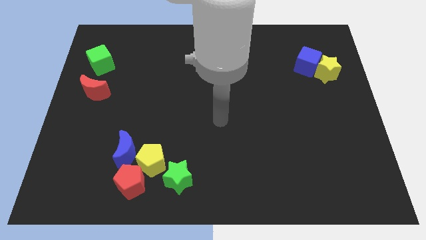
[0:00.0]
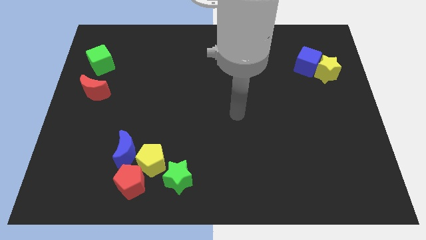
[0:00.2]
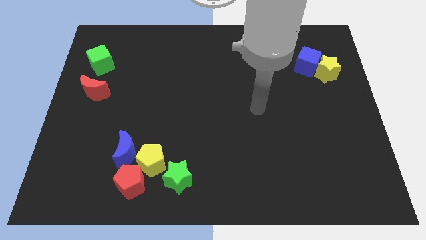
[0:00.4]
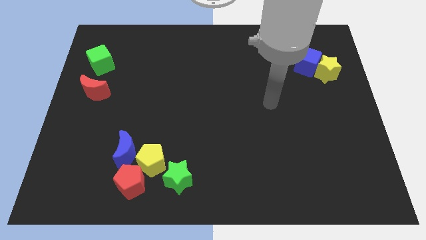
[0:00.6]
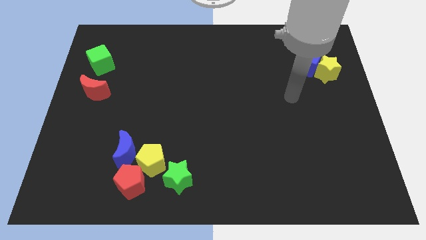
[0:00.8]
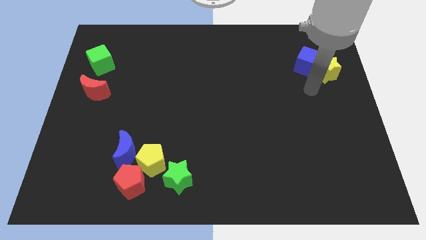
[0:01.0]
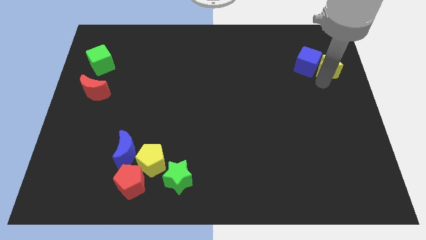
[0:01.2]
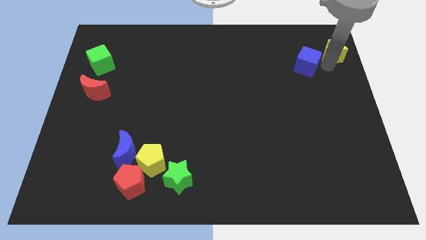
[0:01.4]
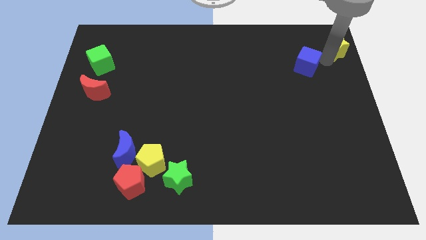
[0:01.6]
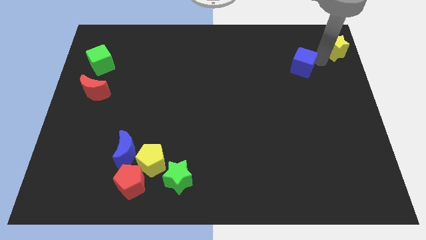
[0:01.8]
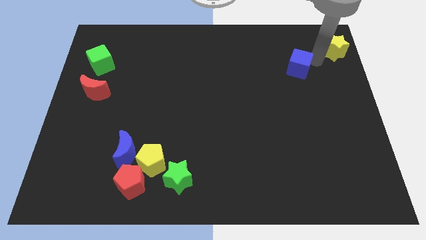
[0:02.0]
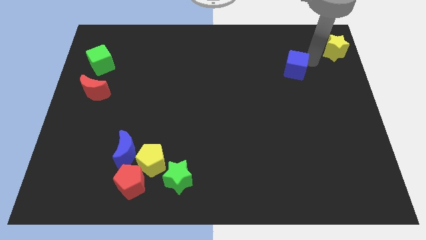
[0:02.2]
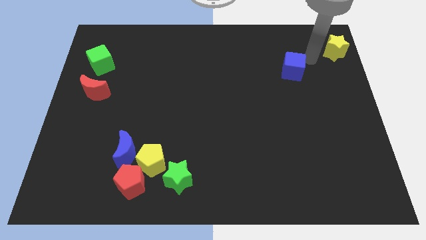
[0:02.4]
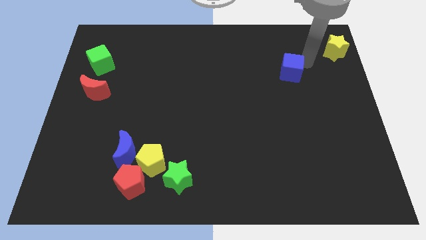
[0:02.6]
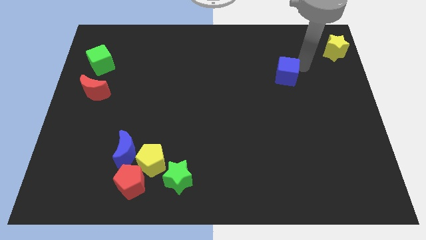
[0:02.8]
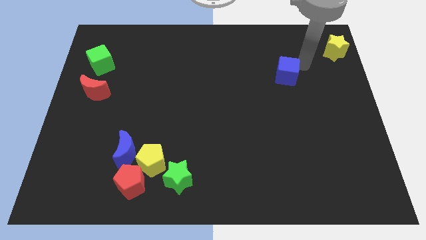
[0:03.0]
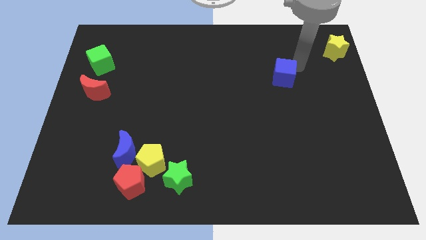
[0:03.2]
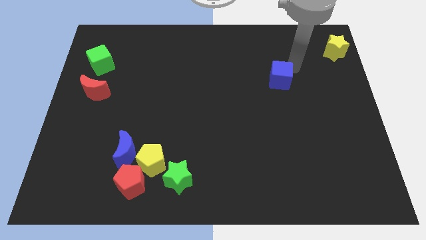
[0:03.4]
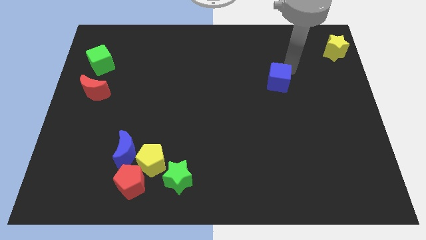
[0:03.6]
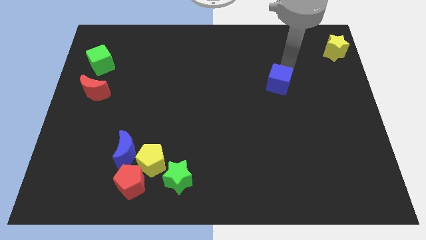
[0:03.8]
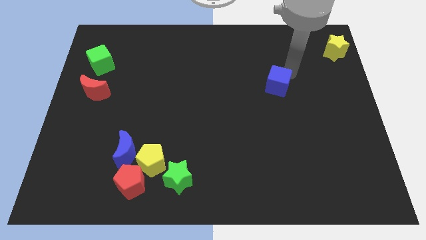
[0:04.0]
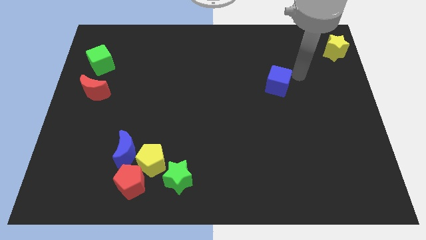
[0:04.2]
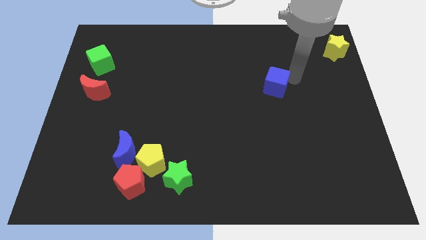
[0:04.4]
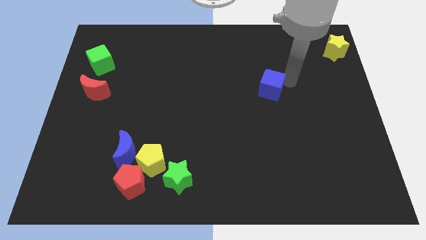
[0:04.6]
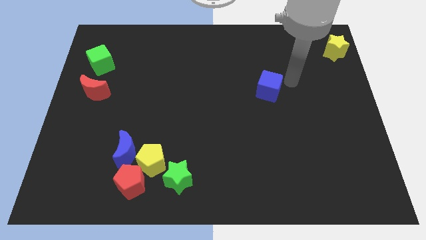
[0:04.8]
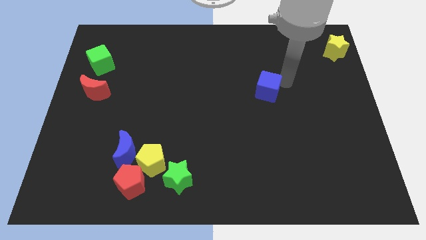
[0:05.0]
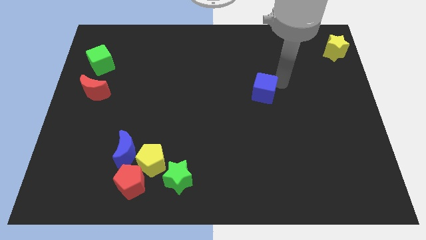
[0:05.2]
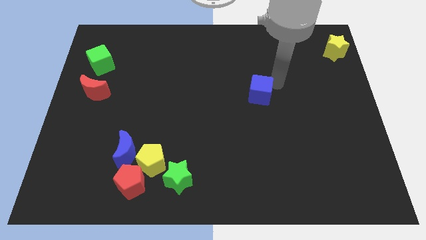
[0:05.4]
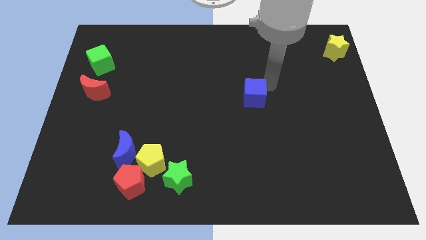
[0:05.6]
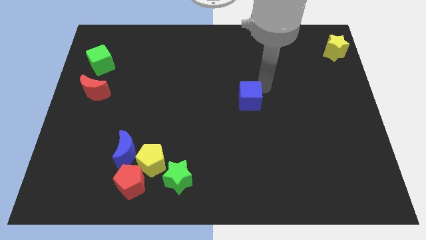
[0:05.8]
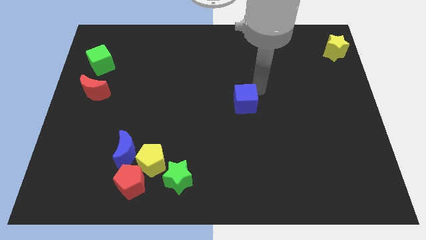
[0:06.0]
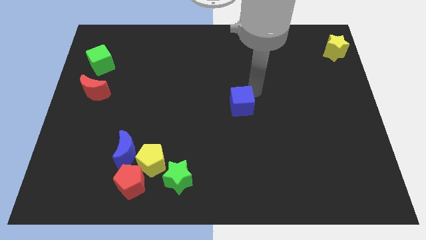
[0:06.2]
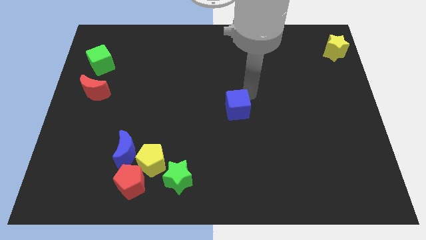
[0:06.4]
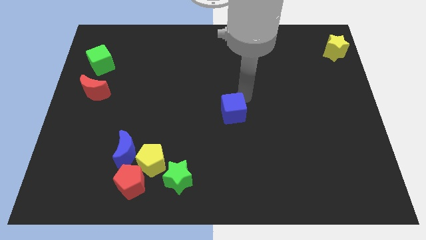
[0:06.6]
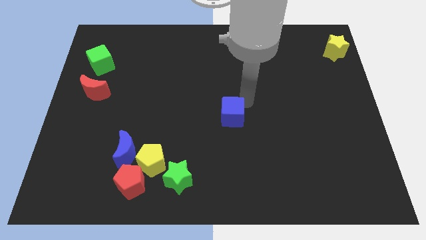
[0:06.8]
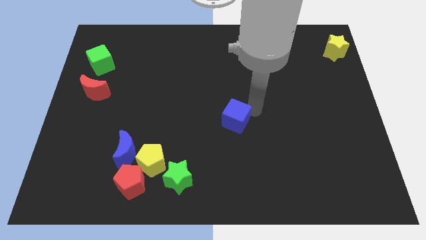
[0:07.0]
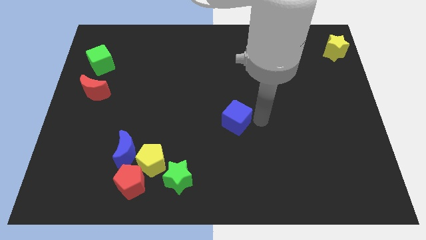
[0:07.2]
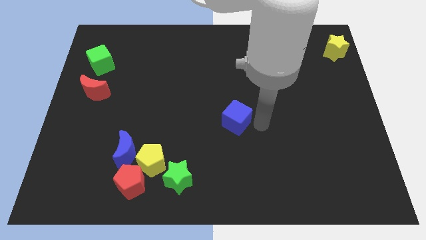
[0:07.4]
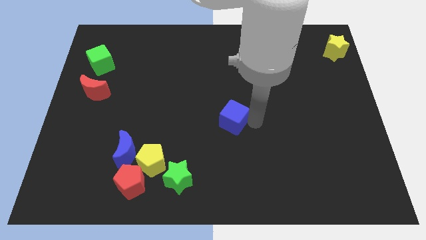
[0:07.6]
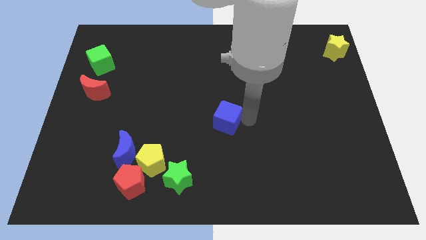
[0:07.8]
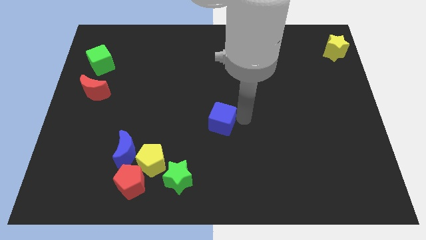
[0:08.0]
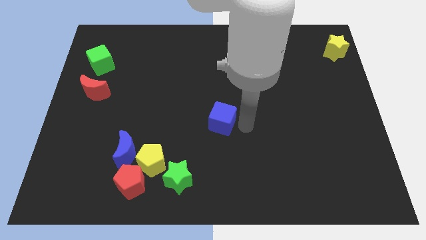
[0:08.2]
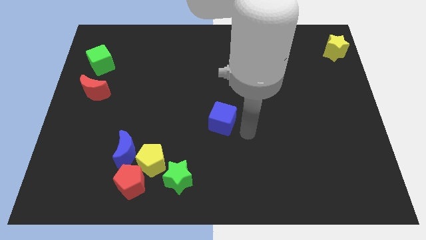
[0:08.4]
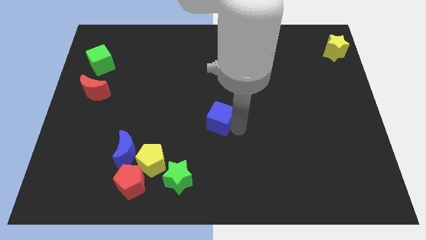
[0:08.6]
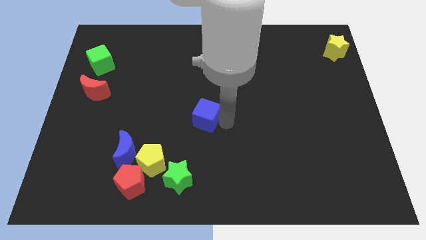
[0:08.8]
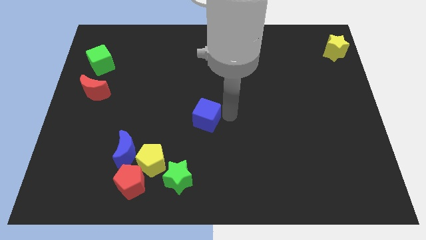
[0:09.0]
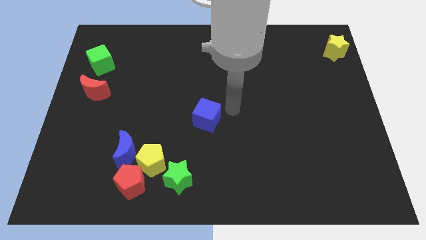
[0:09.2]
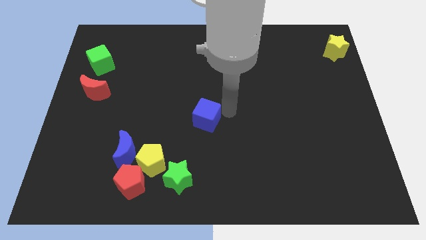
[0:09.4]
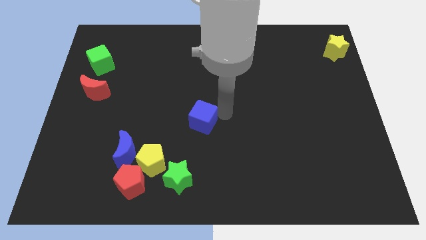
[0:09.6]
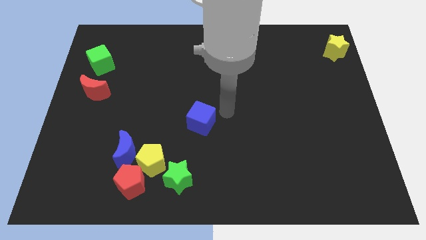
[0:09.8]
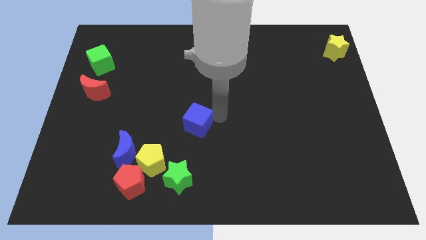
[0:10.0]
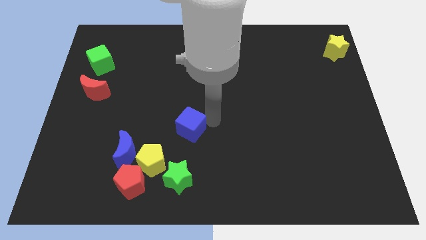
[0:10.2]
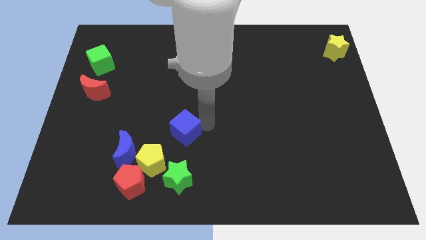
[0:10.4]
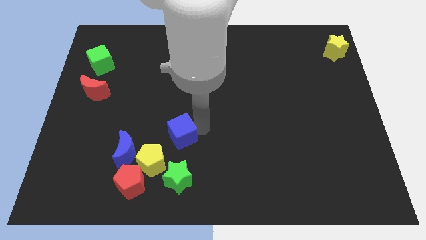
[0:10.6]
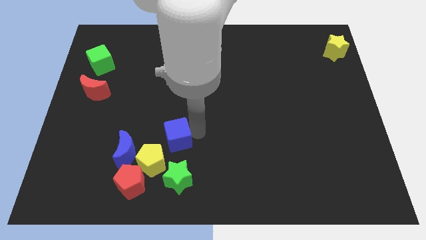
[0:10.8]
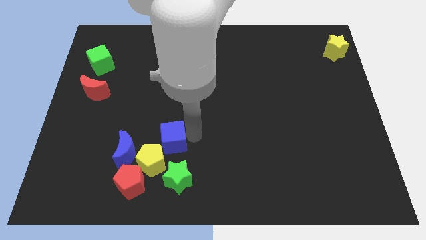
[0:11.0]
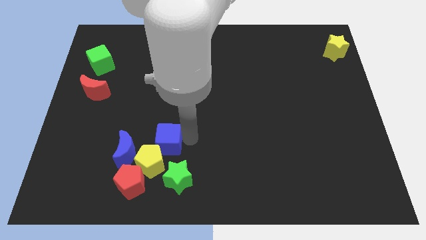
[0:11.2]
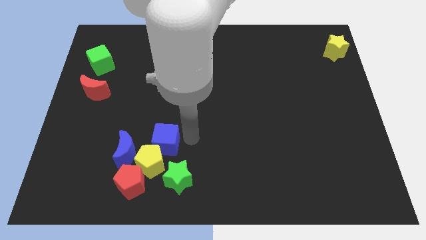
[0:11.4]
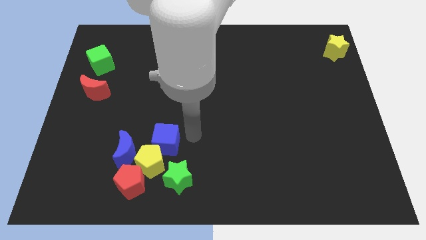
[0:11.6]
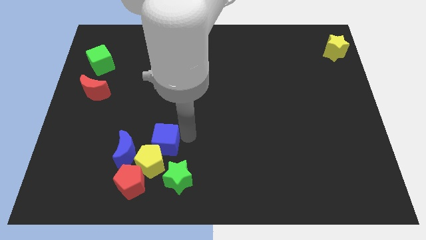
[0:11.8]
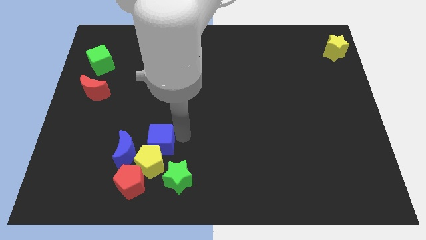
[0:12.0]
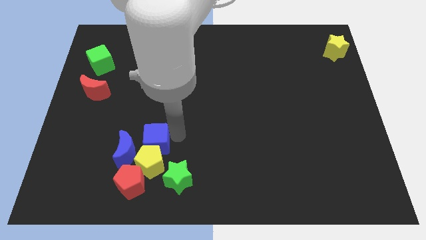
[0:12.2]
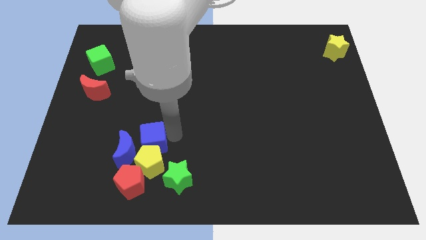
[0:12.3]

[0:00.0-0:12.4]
slide the blue cube to the blue moon

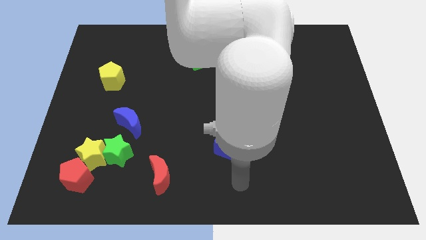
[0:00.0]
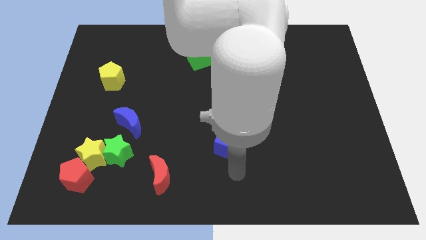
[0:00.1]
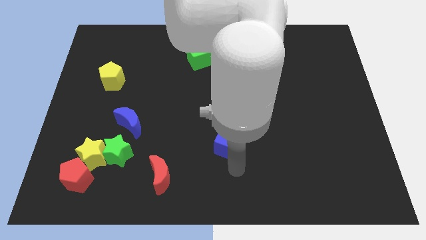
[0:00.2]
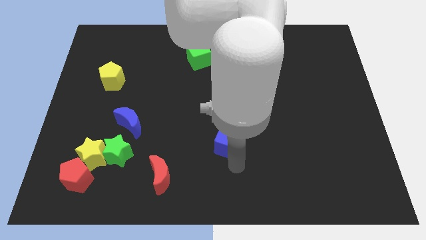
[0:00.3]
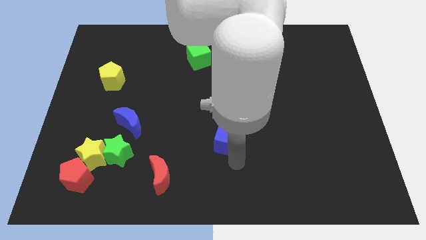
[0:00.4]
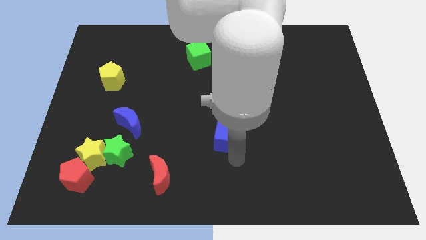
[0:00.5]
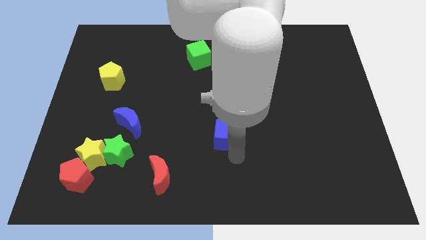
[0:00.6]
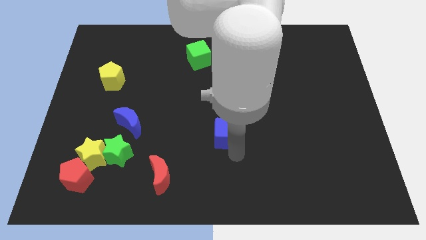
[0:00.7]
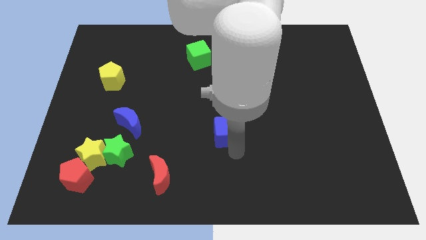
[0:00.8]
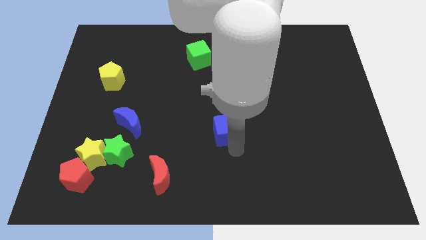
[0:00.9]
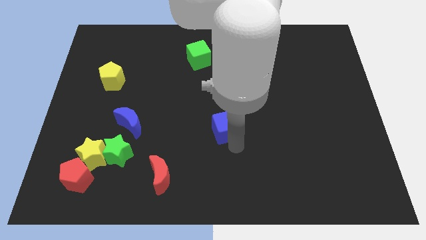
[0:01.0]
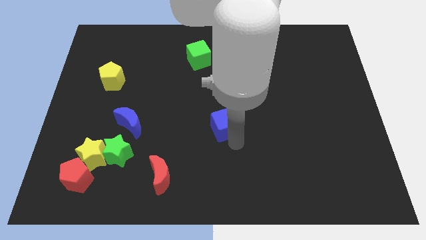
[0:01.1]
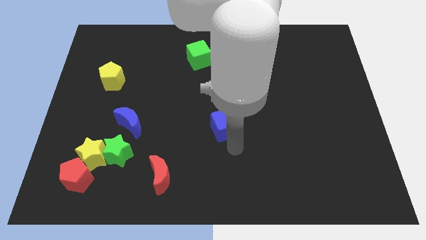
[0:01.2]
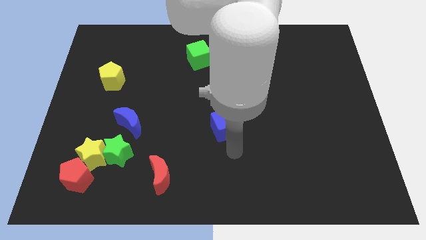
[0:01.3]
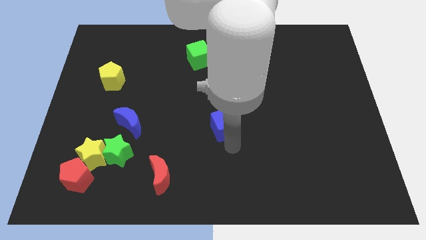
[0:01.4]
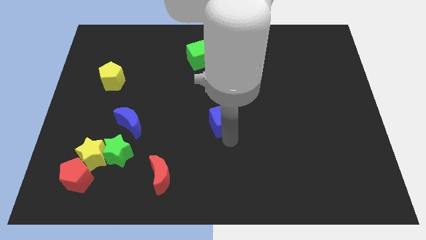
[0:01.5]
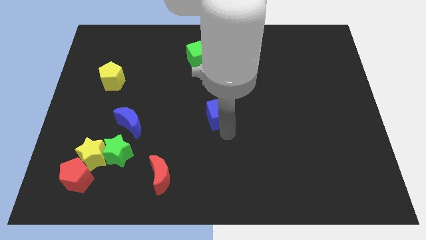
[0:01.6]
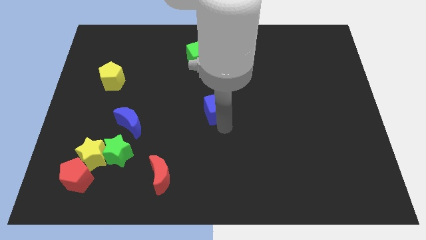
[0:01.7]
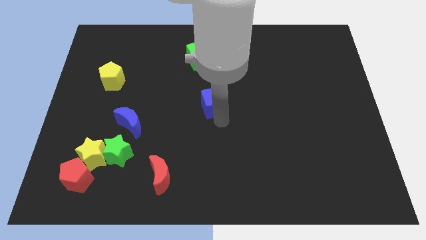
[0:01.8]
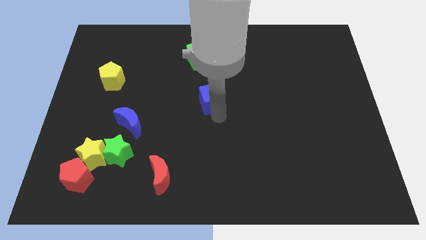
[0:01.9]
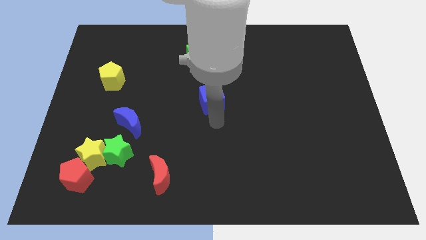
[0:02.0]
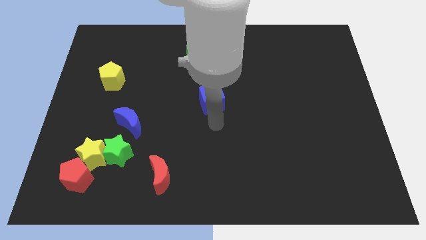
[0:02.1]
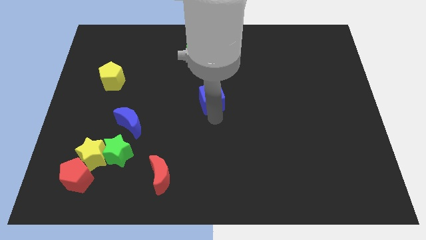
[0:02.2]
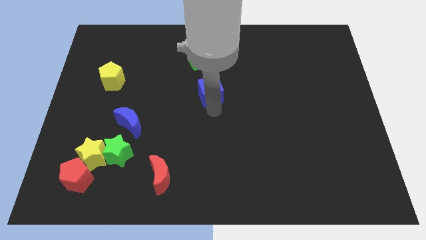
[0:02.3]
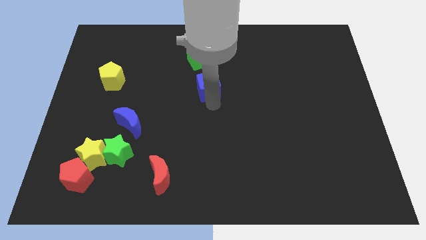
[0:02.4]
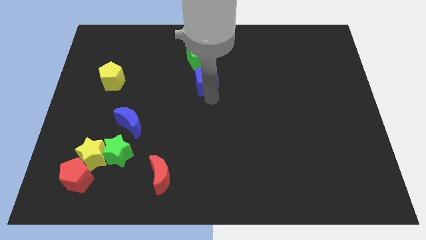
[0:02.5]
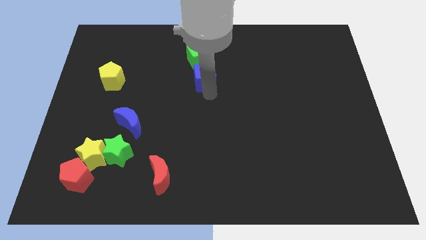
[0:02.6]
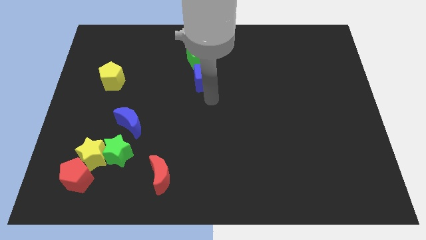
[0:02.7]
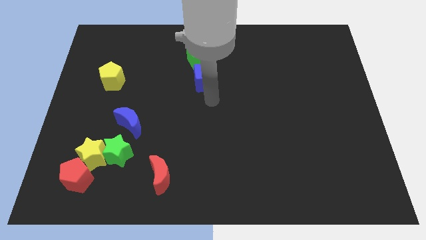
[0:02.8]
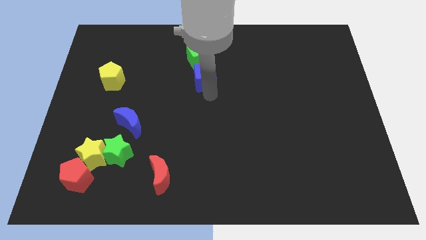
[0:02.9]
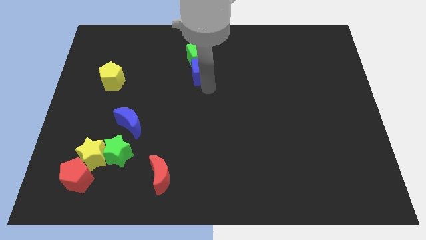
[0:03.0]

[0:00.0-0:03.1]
push the blue cube next to the green cube
